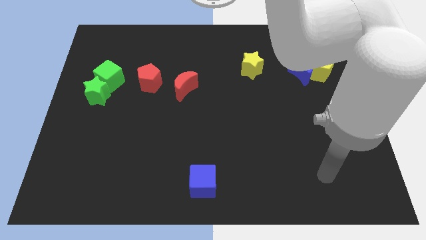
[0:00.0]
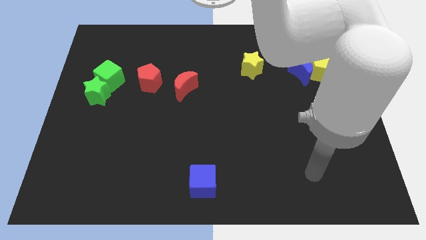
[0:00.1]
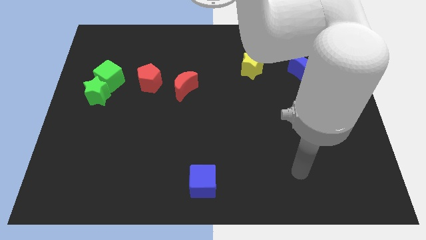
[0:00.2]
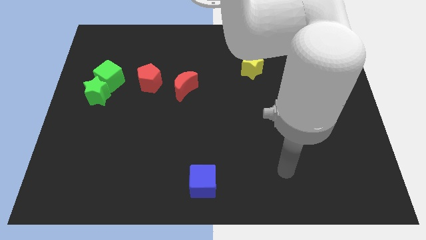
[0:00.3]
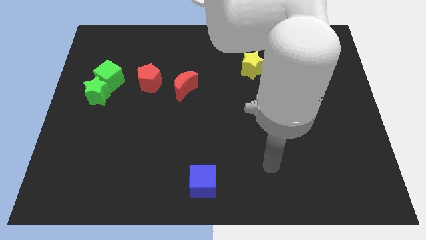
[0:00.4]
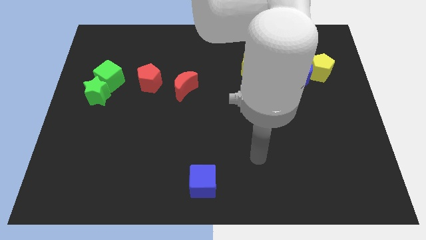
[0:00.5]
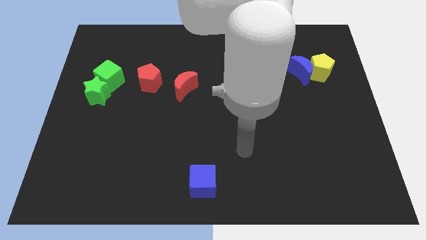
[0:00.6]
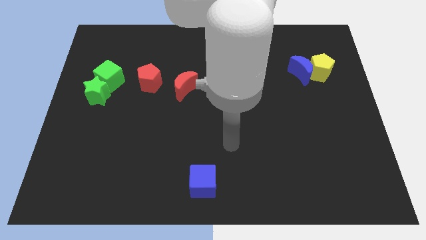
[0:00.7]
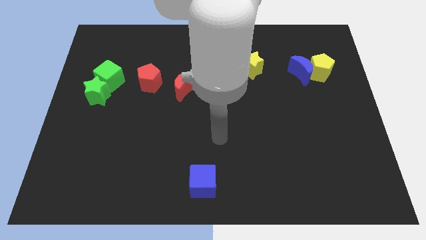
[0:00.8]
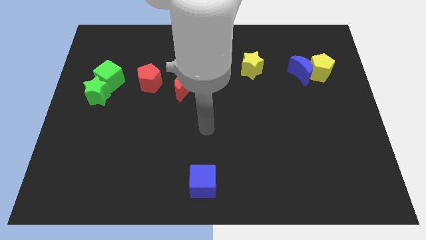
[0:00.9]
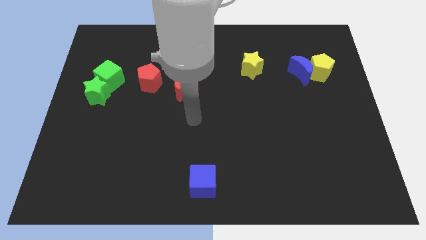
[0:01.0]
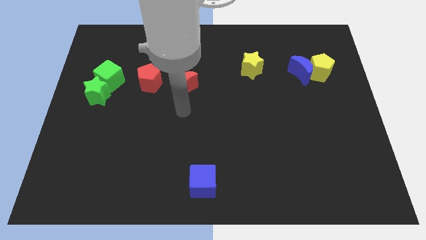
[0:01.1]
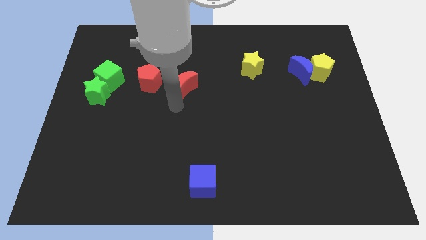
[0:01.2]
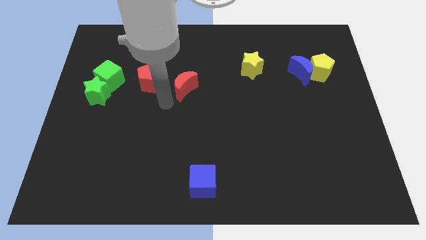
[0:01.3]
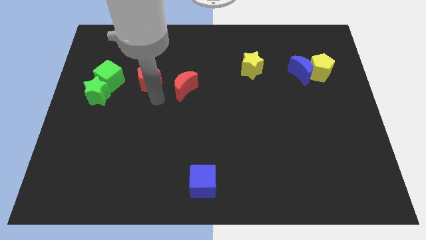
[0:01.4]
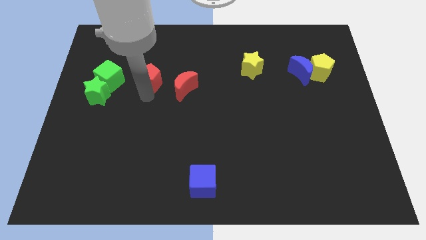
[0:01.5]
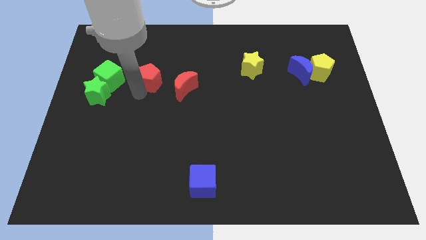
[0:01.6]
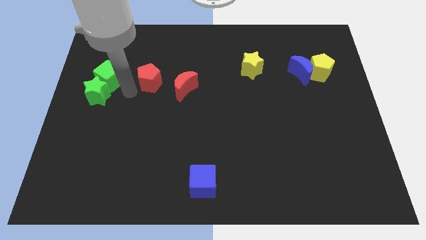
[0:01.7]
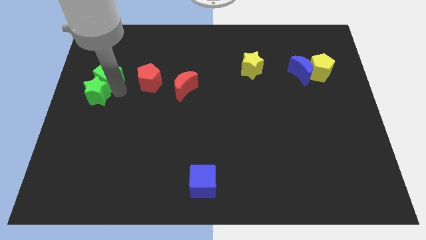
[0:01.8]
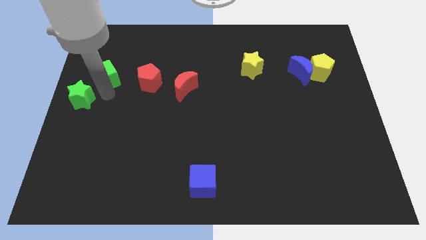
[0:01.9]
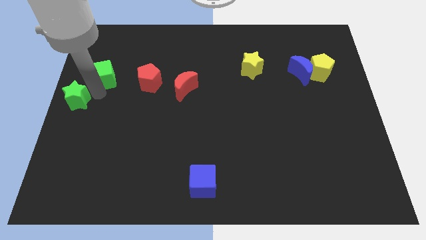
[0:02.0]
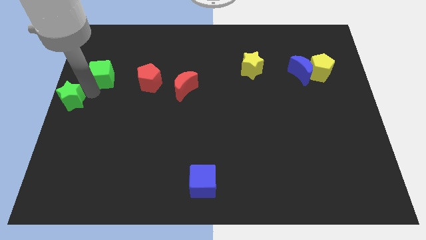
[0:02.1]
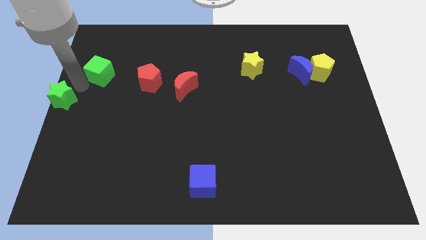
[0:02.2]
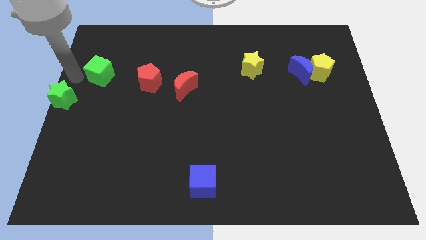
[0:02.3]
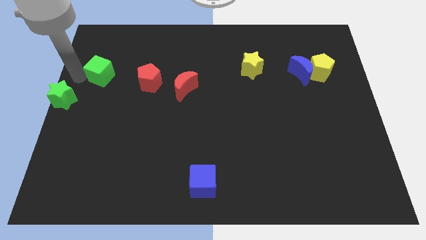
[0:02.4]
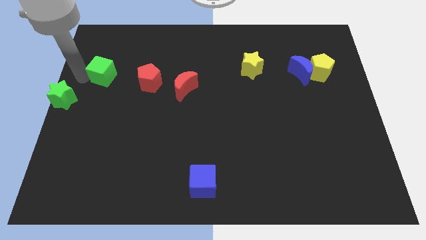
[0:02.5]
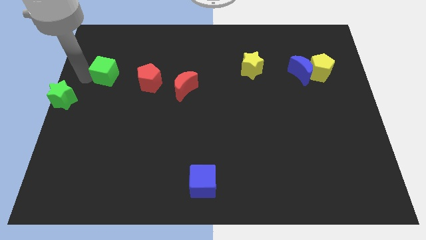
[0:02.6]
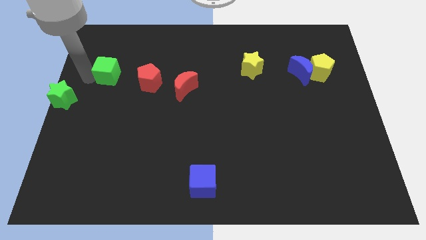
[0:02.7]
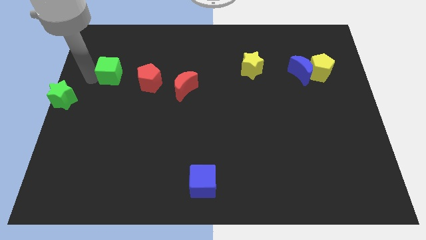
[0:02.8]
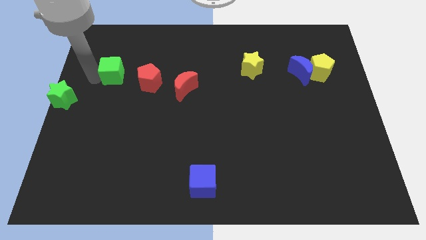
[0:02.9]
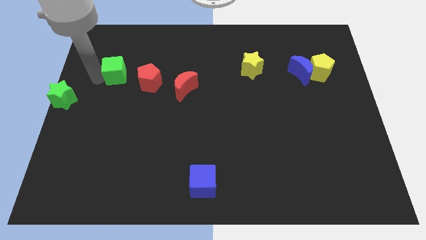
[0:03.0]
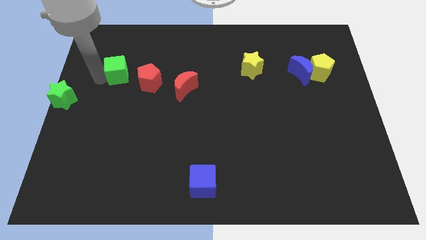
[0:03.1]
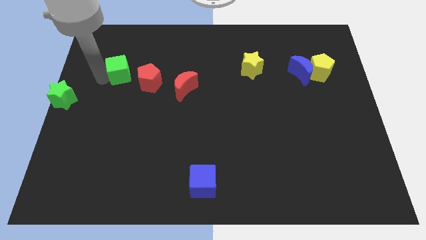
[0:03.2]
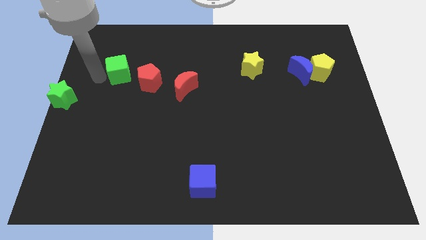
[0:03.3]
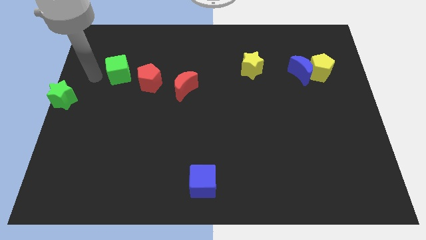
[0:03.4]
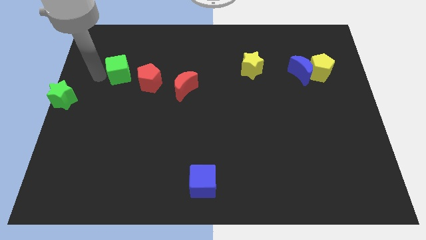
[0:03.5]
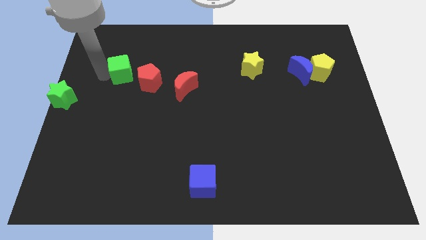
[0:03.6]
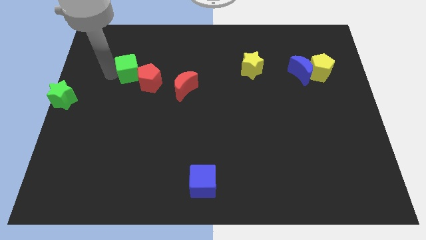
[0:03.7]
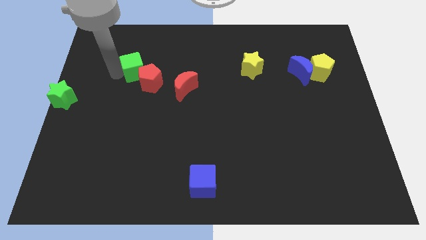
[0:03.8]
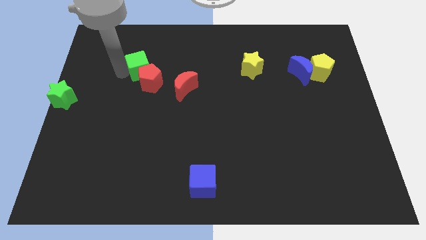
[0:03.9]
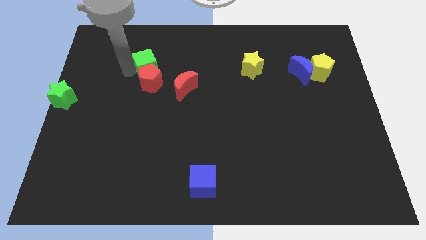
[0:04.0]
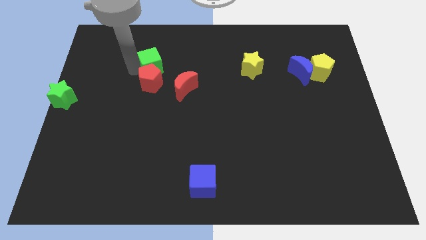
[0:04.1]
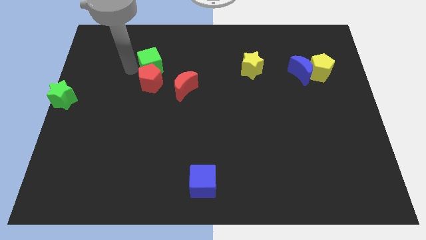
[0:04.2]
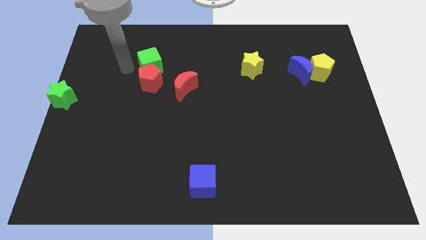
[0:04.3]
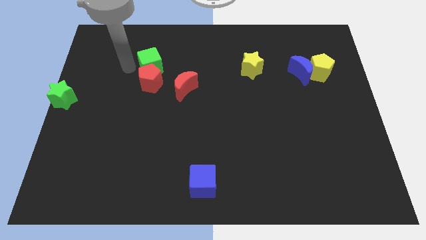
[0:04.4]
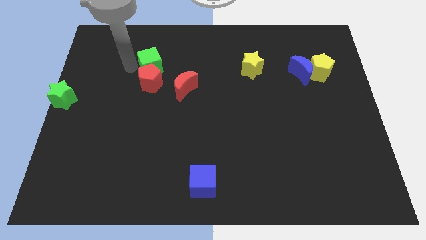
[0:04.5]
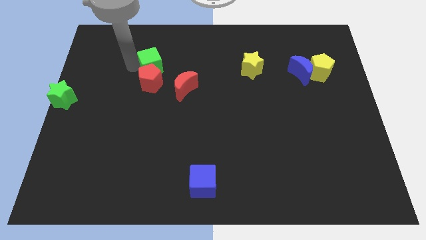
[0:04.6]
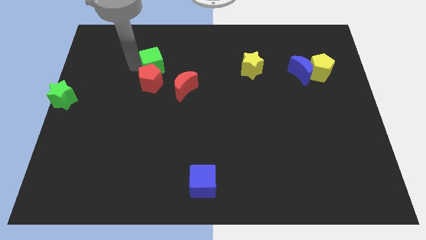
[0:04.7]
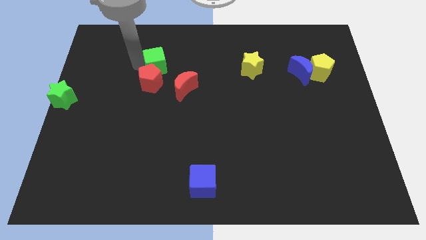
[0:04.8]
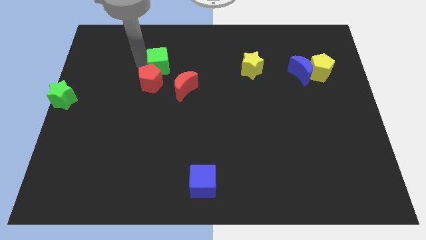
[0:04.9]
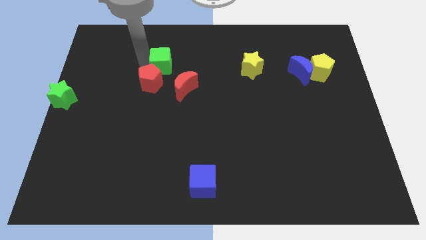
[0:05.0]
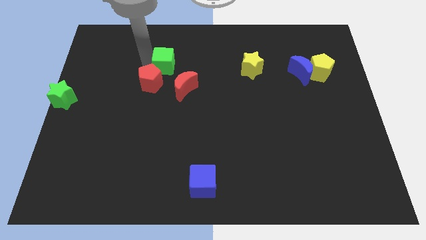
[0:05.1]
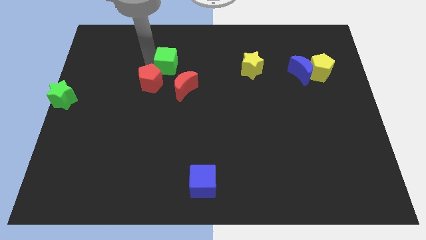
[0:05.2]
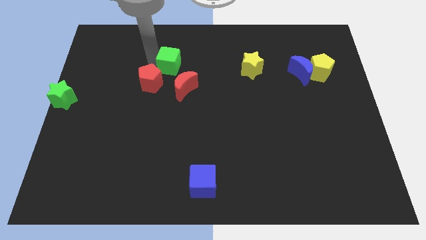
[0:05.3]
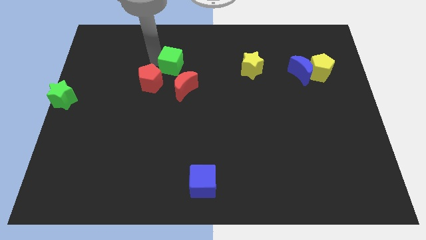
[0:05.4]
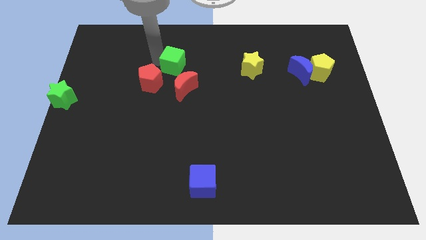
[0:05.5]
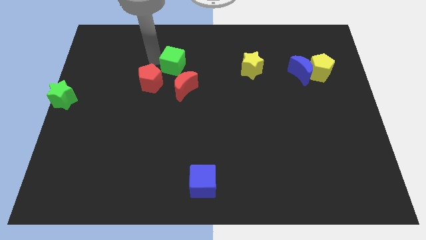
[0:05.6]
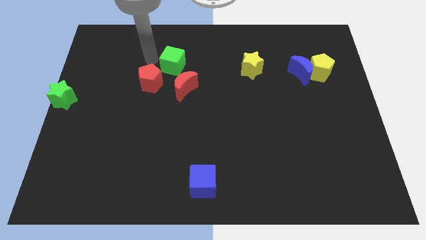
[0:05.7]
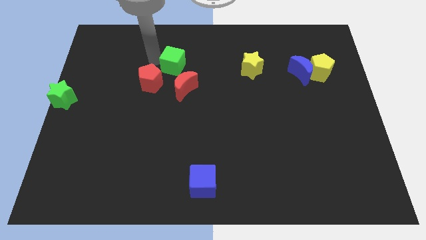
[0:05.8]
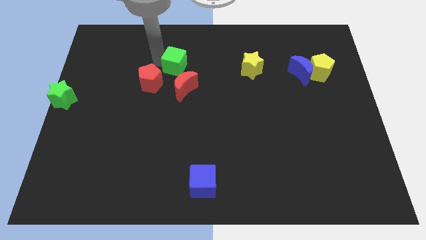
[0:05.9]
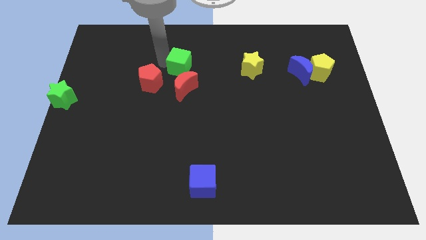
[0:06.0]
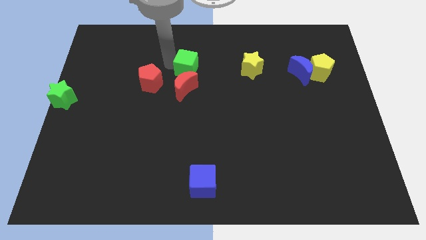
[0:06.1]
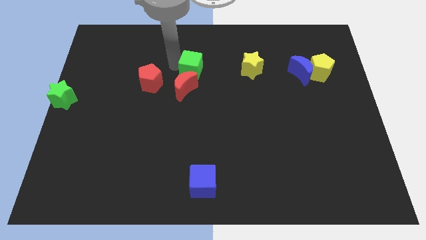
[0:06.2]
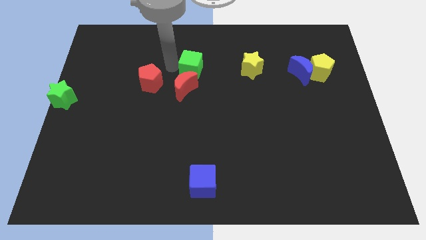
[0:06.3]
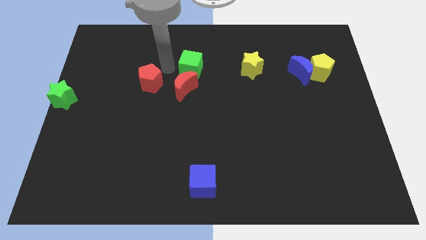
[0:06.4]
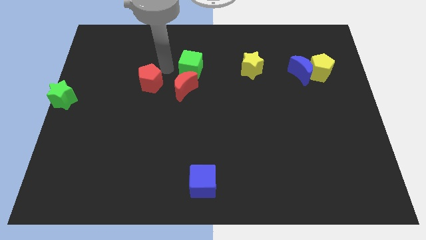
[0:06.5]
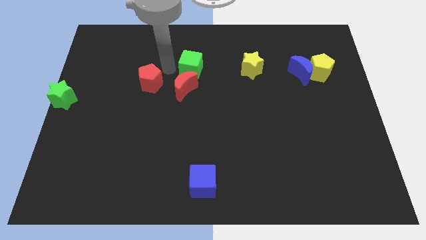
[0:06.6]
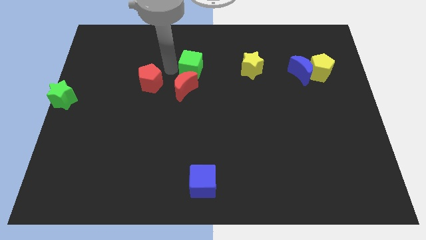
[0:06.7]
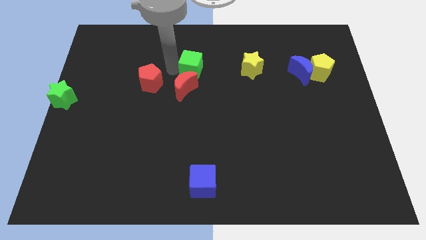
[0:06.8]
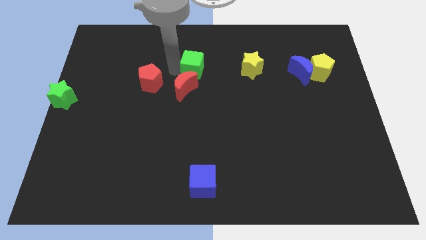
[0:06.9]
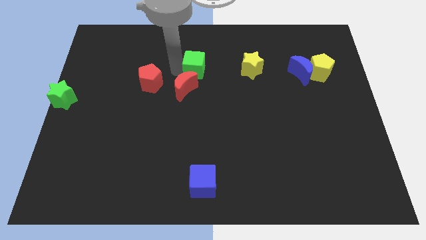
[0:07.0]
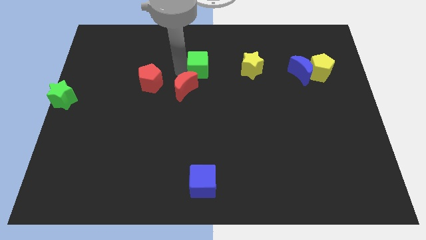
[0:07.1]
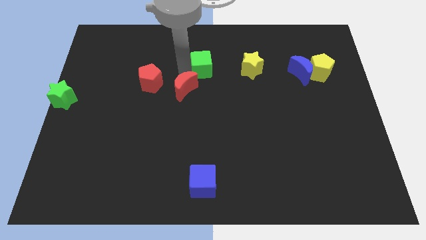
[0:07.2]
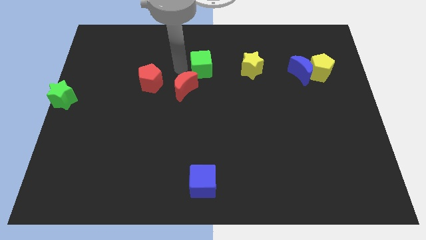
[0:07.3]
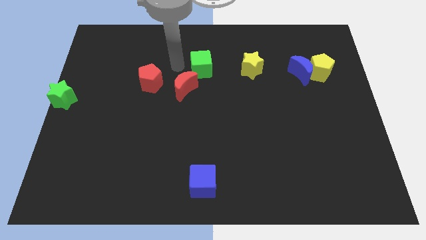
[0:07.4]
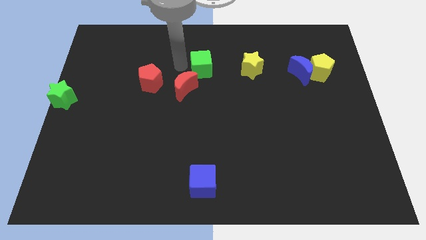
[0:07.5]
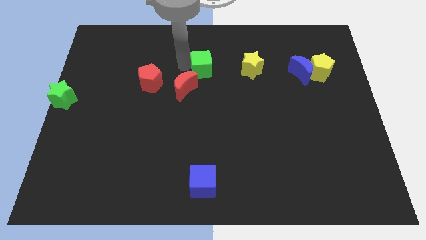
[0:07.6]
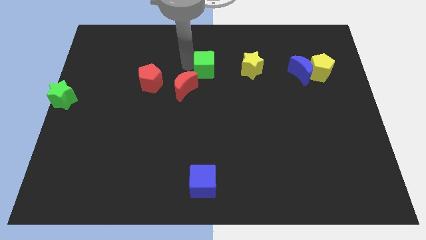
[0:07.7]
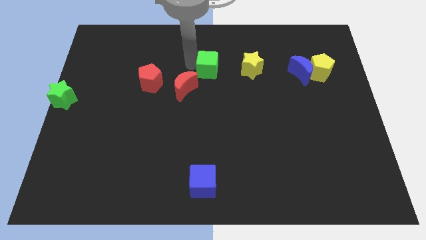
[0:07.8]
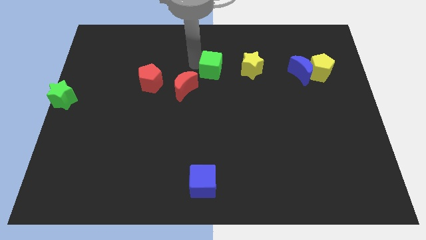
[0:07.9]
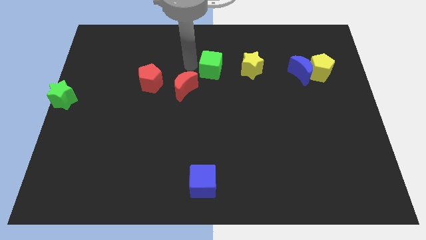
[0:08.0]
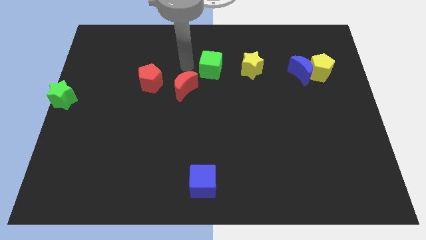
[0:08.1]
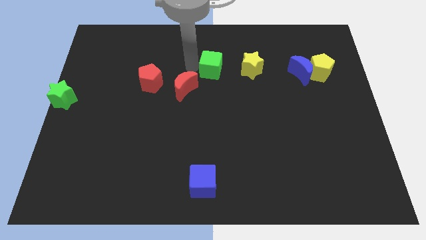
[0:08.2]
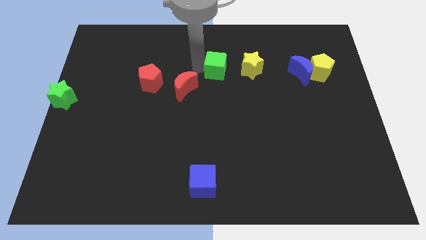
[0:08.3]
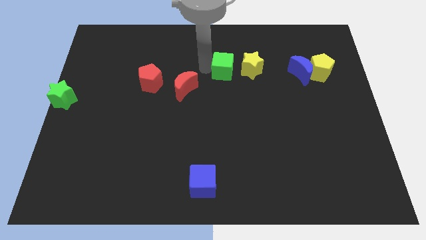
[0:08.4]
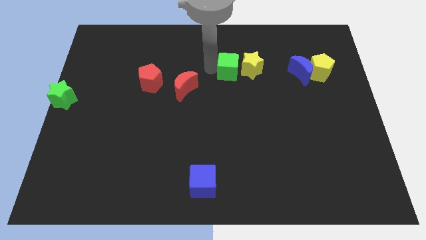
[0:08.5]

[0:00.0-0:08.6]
put the green cube next to the yellow star
